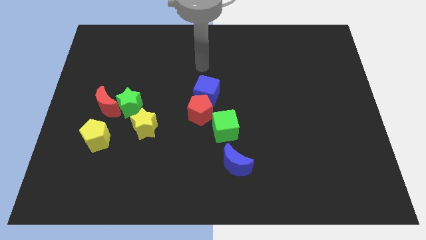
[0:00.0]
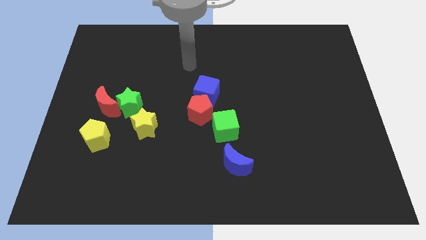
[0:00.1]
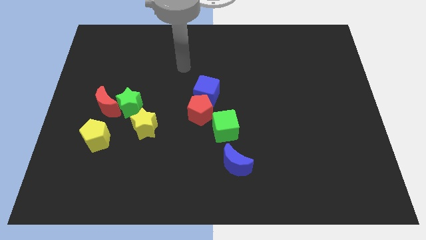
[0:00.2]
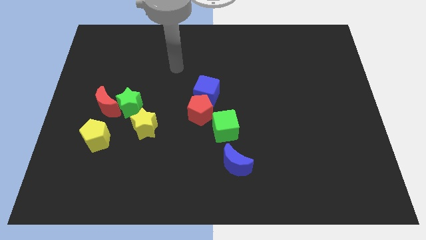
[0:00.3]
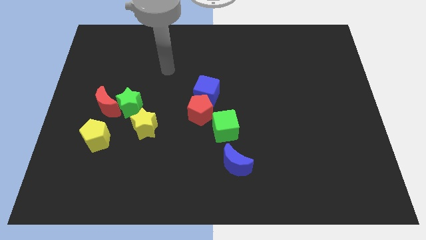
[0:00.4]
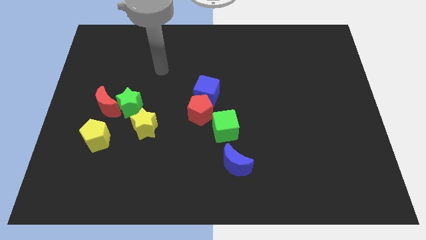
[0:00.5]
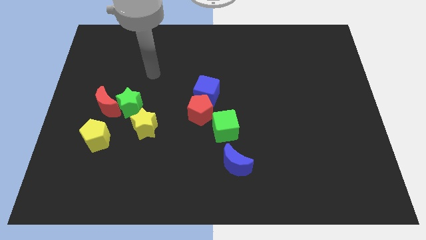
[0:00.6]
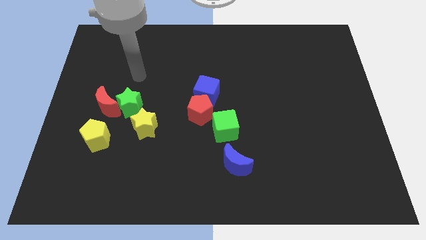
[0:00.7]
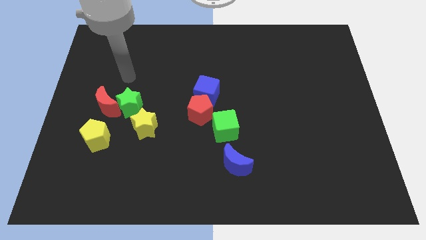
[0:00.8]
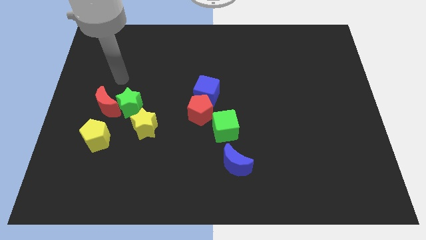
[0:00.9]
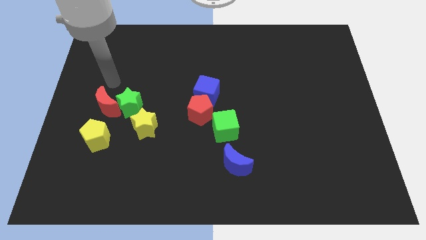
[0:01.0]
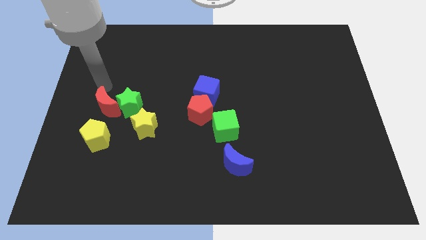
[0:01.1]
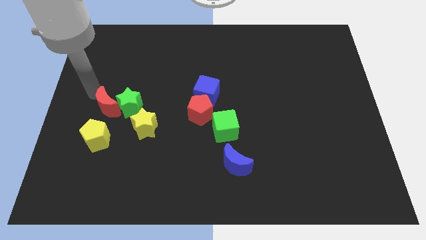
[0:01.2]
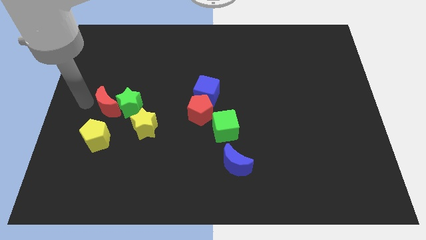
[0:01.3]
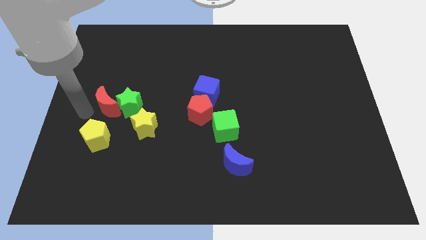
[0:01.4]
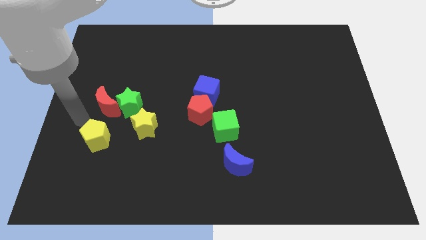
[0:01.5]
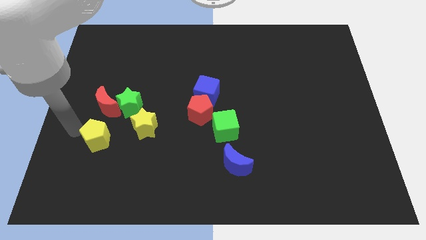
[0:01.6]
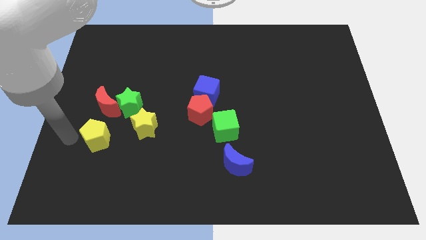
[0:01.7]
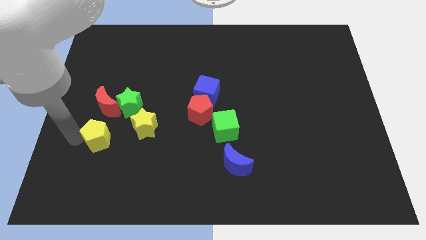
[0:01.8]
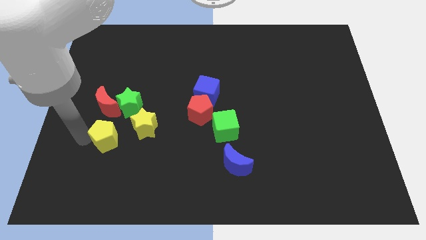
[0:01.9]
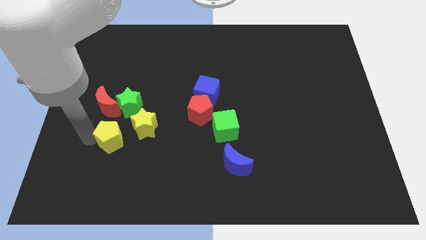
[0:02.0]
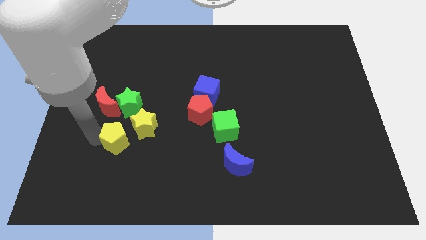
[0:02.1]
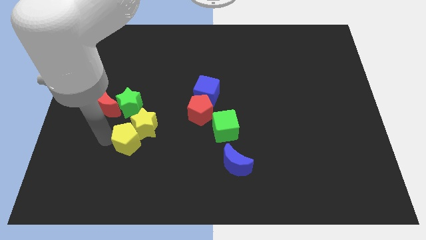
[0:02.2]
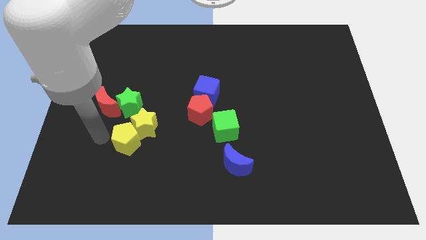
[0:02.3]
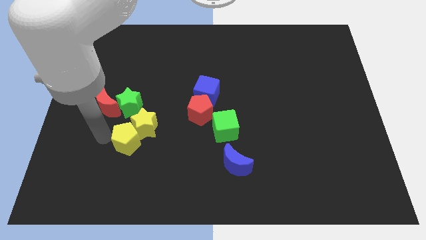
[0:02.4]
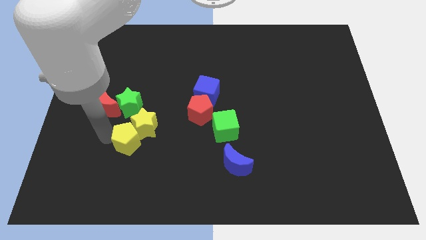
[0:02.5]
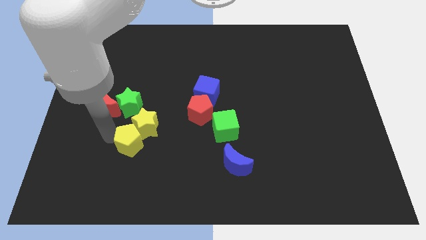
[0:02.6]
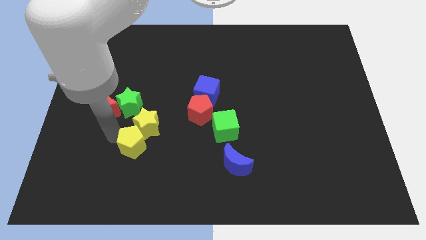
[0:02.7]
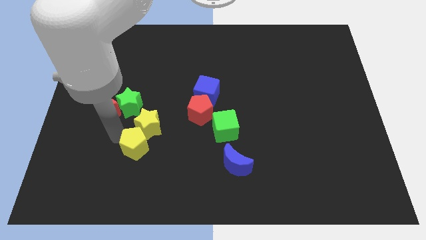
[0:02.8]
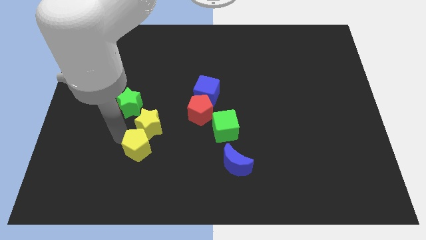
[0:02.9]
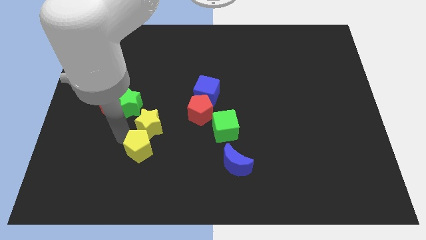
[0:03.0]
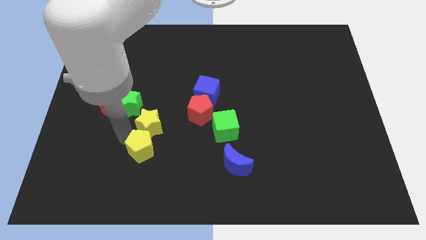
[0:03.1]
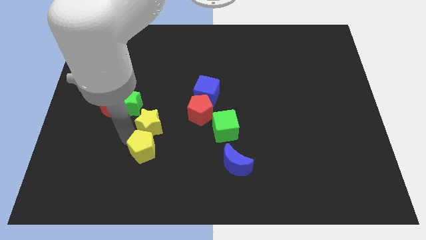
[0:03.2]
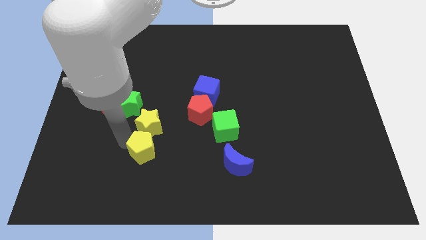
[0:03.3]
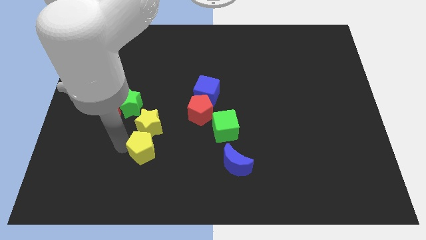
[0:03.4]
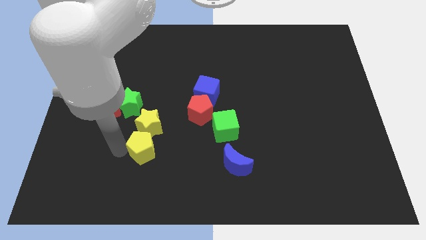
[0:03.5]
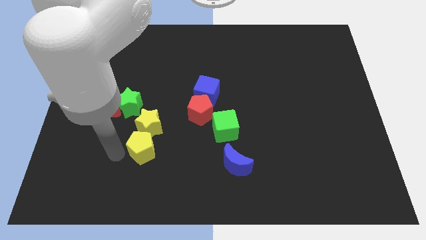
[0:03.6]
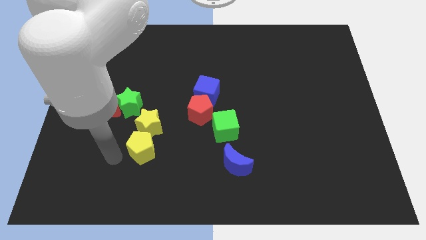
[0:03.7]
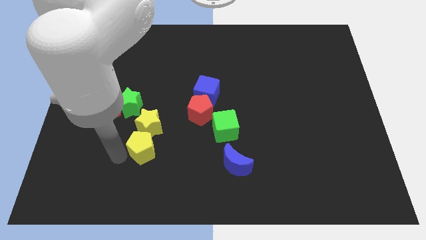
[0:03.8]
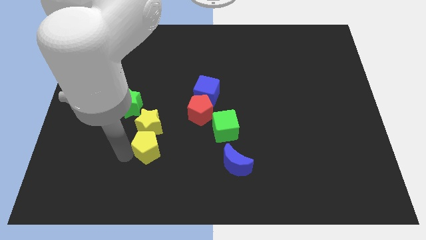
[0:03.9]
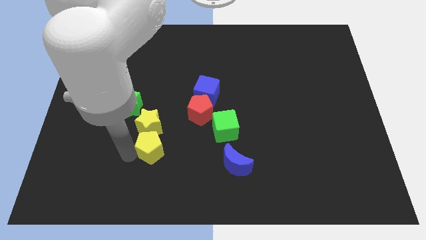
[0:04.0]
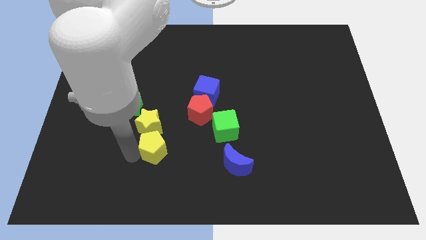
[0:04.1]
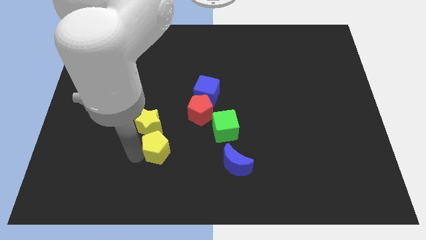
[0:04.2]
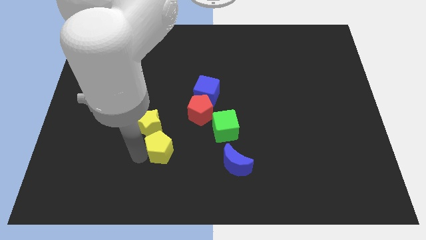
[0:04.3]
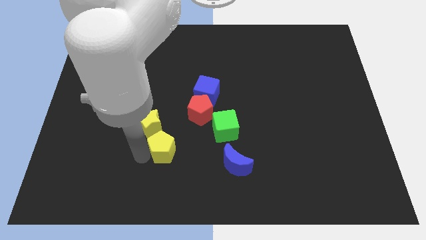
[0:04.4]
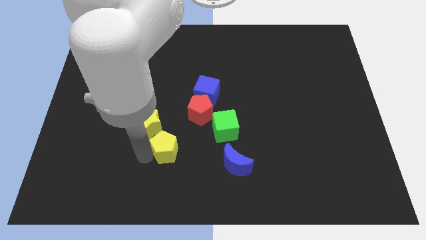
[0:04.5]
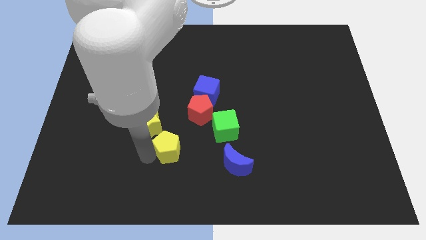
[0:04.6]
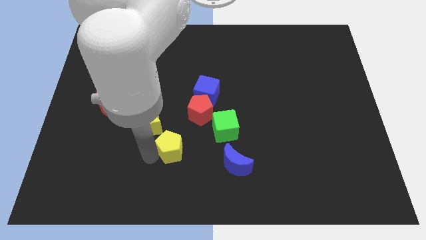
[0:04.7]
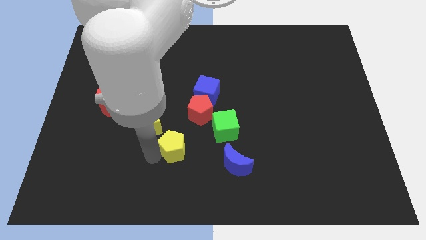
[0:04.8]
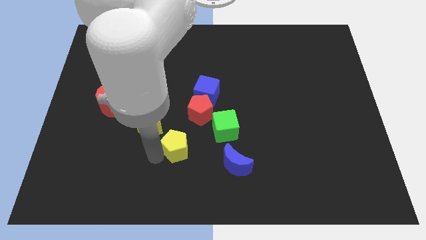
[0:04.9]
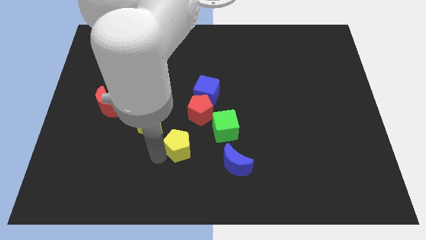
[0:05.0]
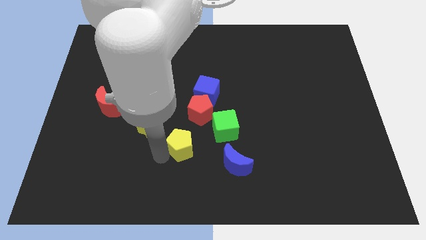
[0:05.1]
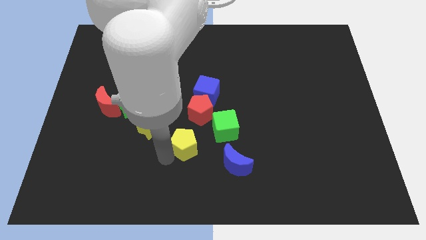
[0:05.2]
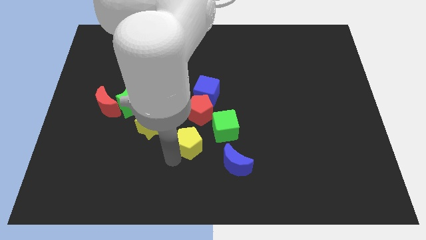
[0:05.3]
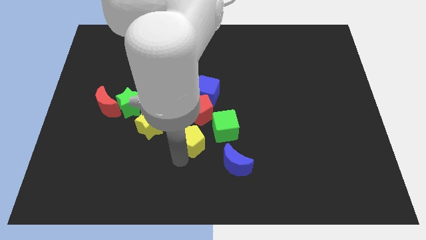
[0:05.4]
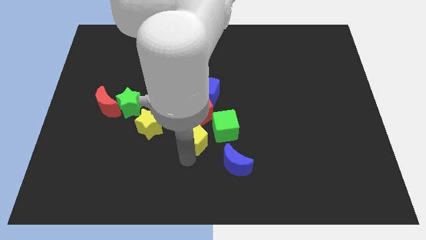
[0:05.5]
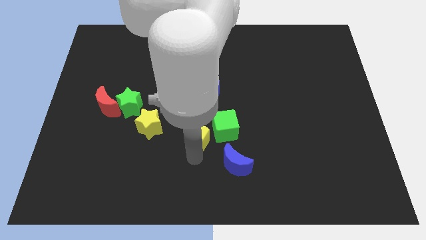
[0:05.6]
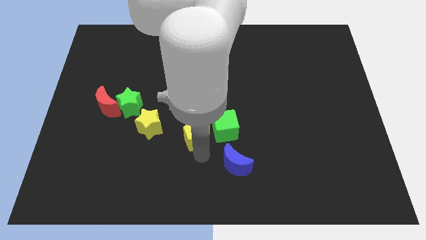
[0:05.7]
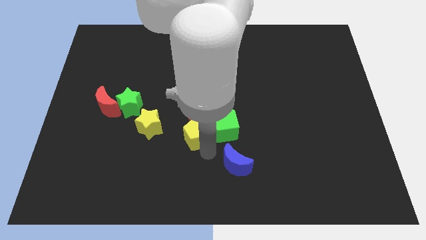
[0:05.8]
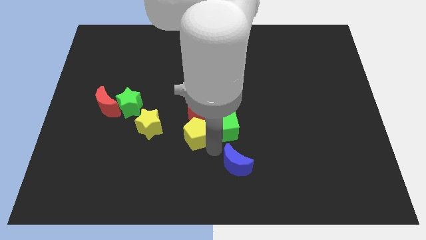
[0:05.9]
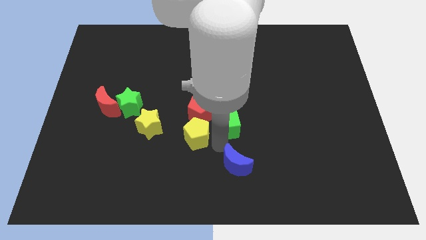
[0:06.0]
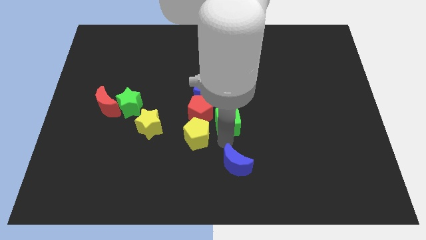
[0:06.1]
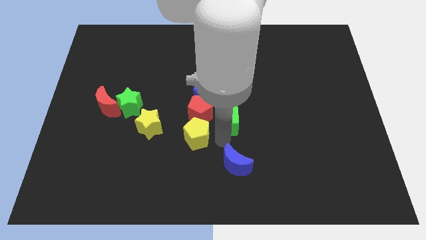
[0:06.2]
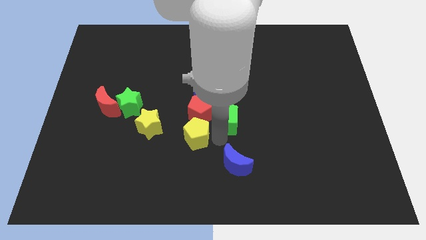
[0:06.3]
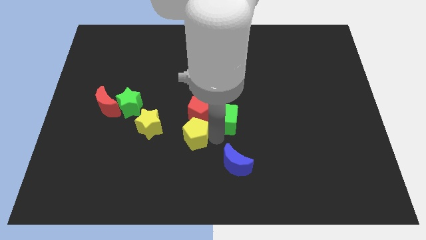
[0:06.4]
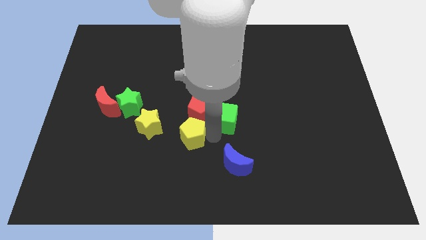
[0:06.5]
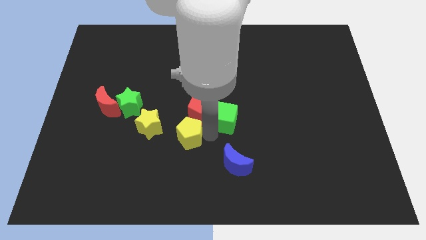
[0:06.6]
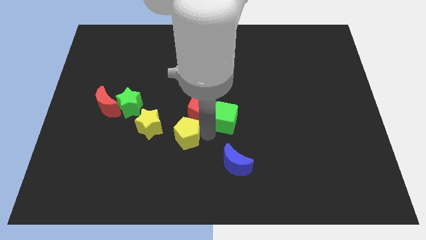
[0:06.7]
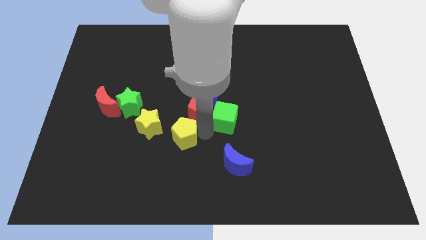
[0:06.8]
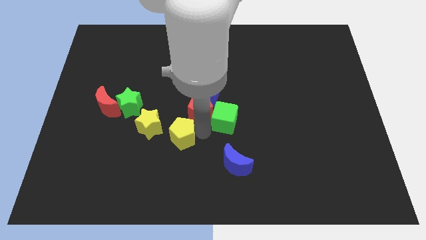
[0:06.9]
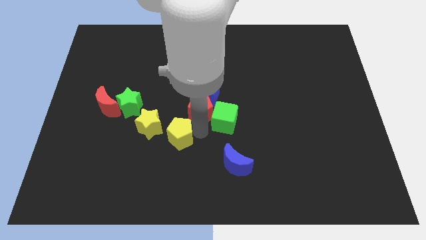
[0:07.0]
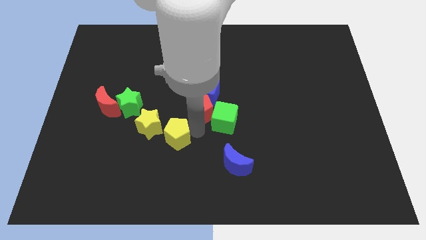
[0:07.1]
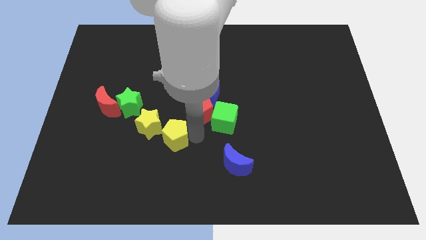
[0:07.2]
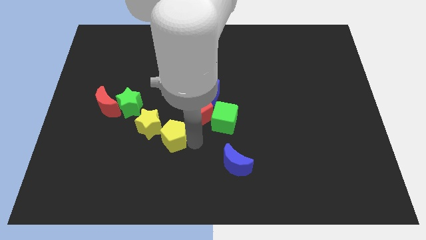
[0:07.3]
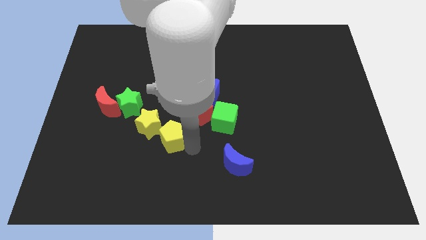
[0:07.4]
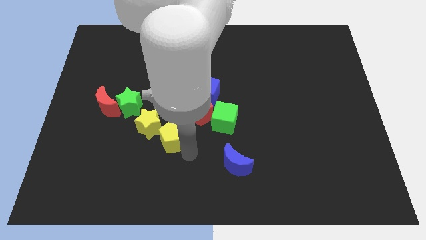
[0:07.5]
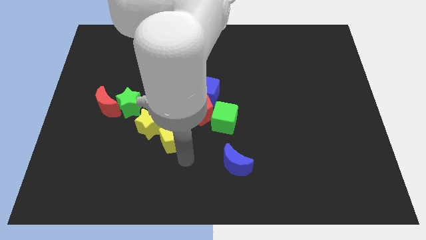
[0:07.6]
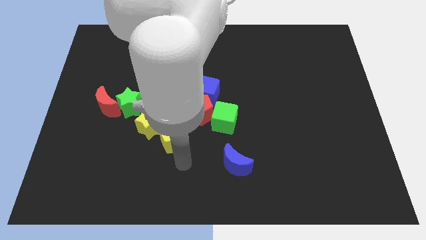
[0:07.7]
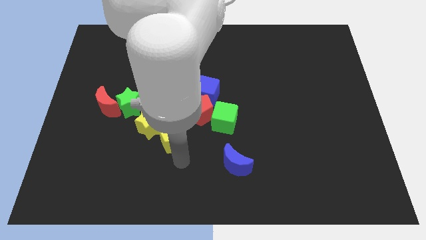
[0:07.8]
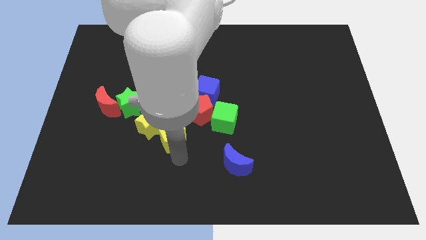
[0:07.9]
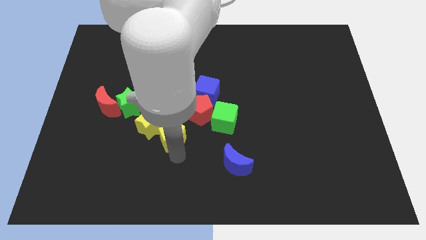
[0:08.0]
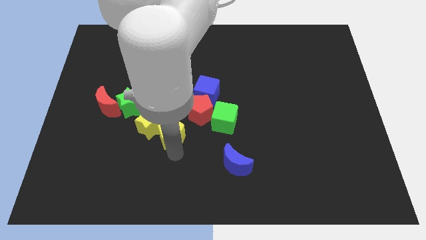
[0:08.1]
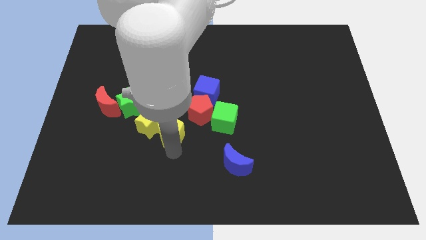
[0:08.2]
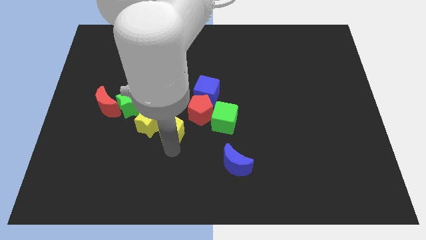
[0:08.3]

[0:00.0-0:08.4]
push the yellow pentagon a little bit diagonally upwards and to the right

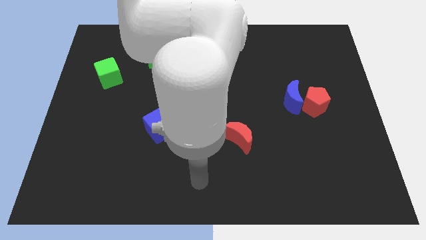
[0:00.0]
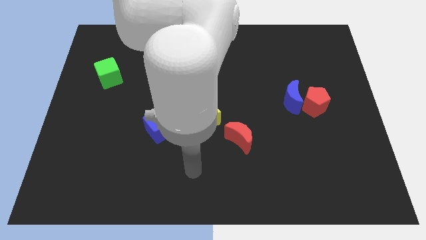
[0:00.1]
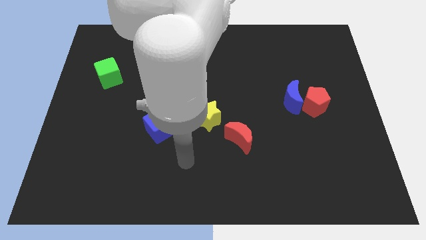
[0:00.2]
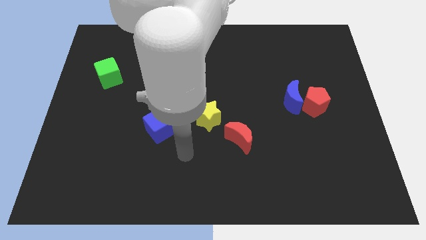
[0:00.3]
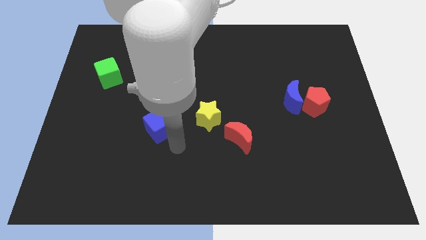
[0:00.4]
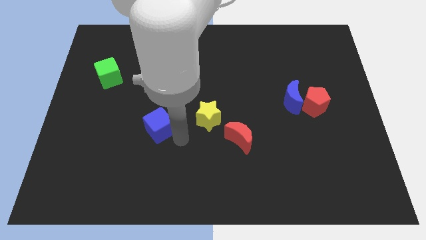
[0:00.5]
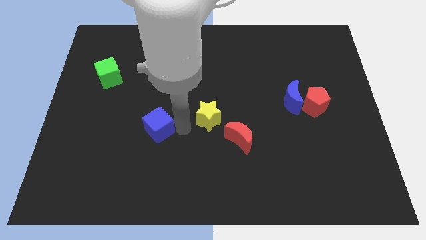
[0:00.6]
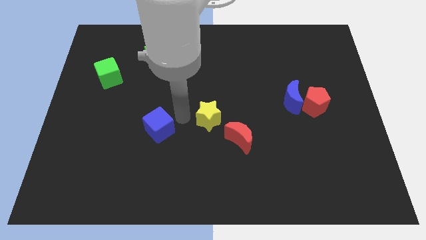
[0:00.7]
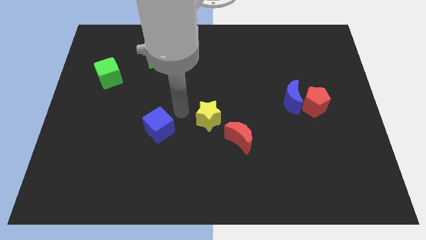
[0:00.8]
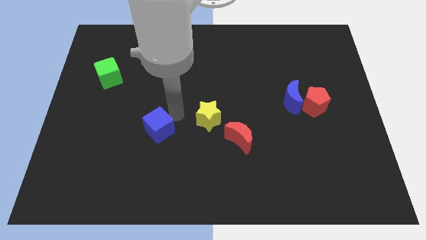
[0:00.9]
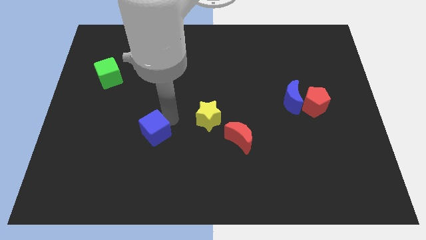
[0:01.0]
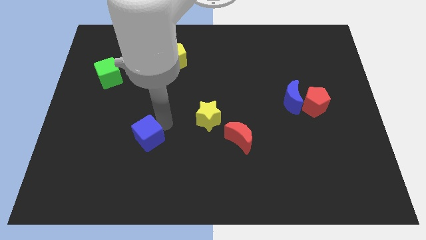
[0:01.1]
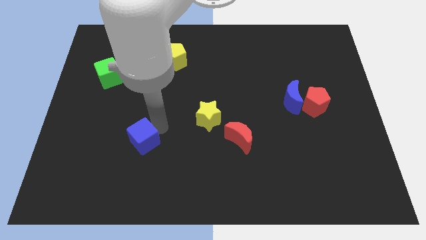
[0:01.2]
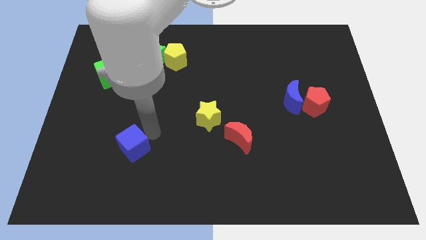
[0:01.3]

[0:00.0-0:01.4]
move the blue cube a bit down and then left
